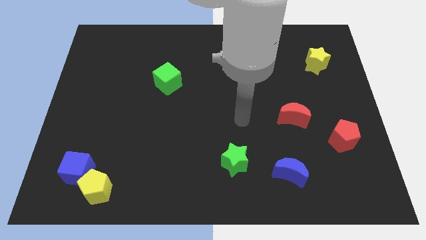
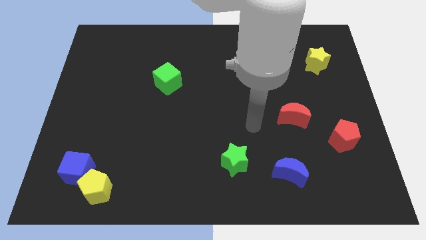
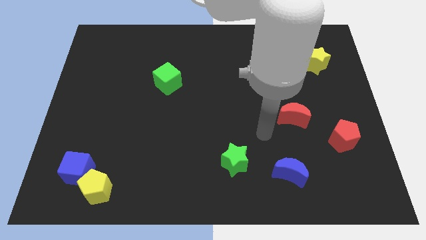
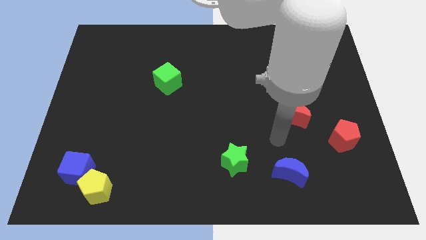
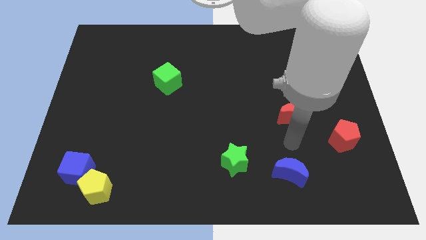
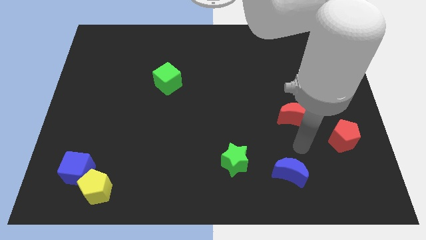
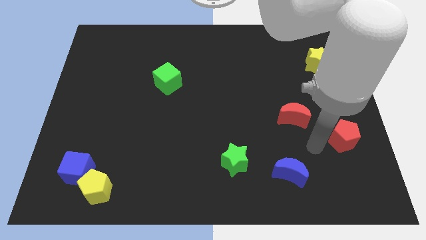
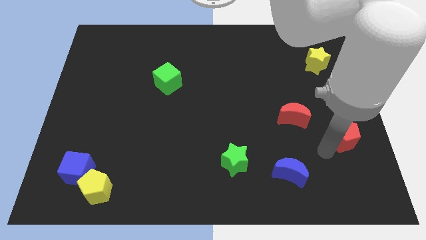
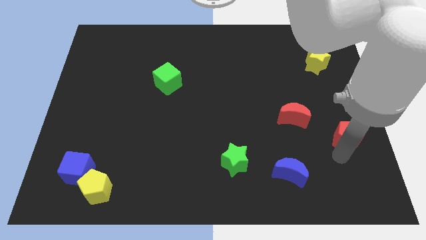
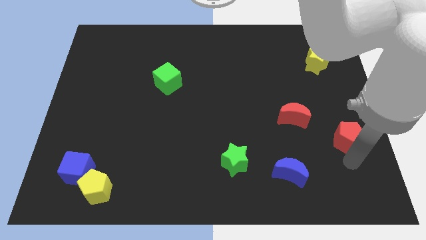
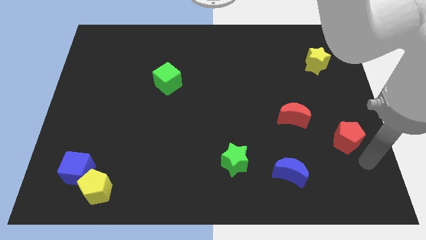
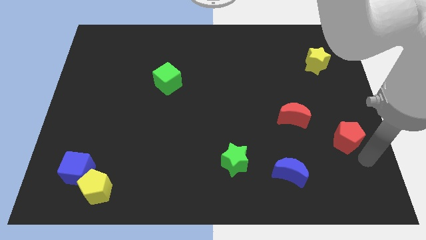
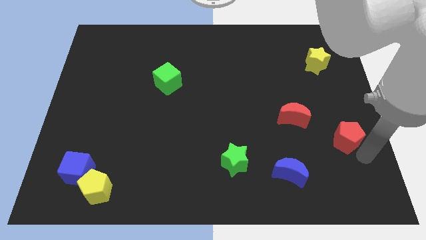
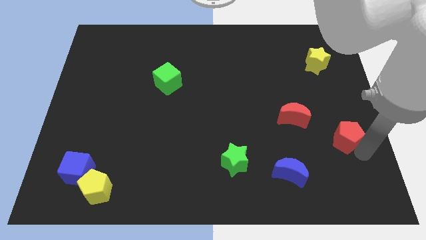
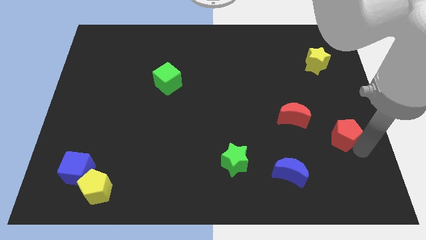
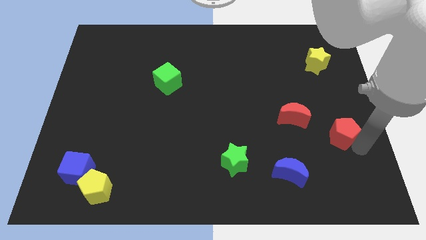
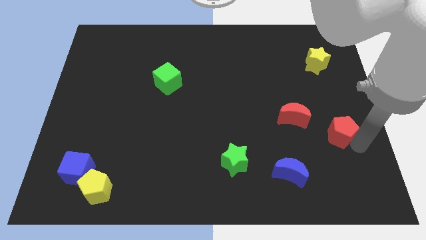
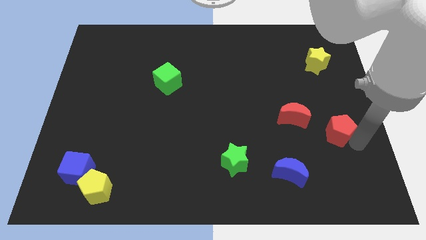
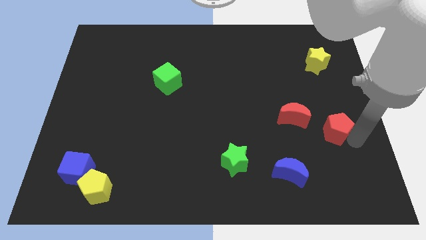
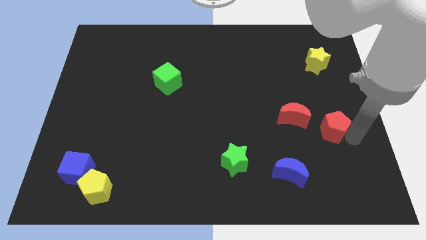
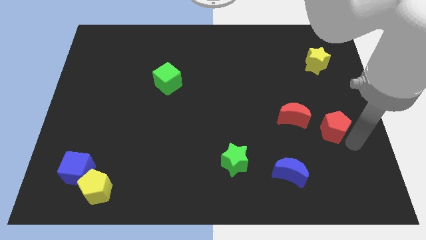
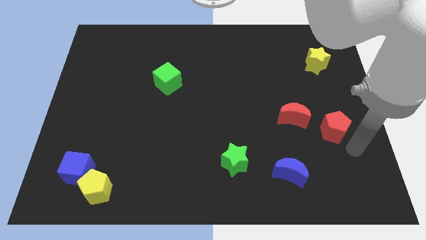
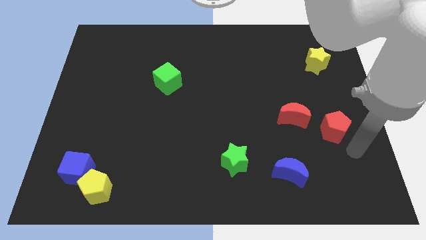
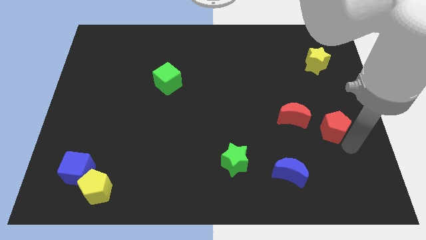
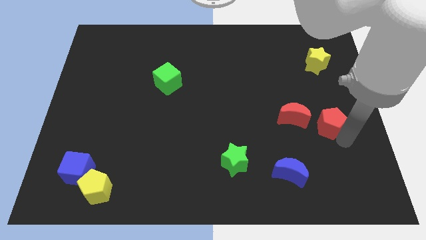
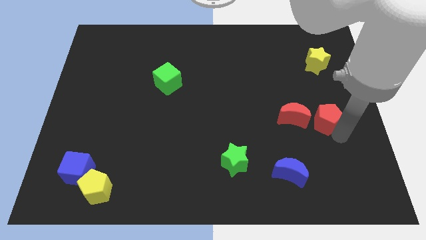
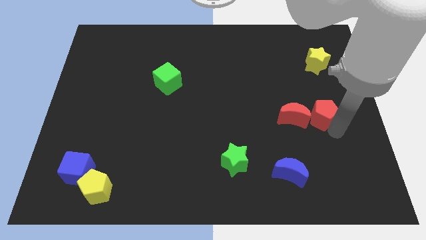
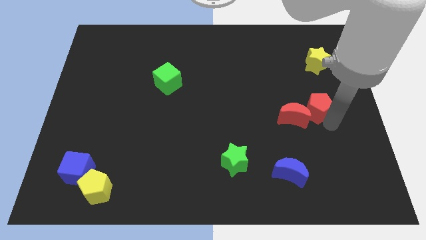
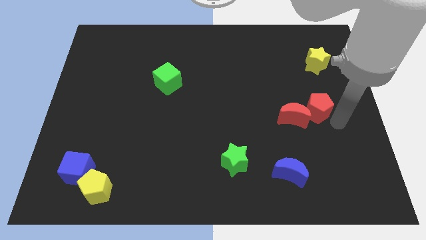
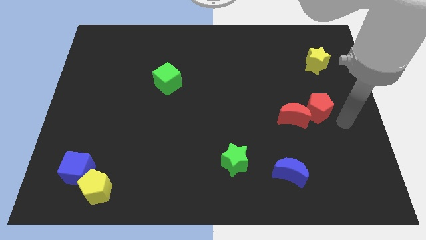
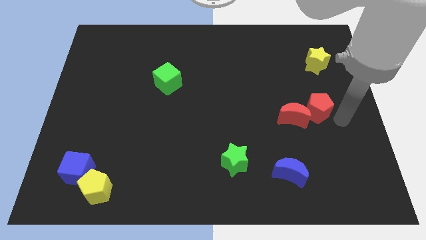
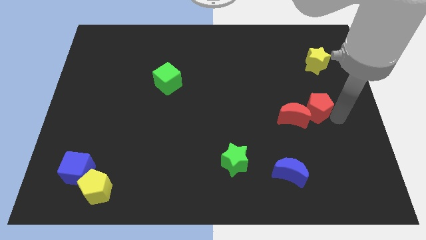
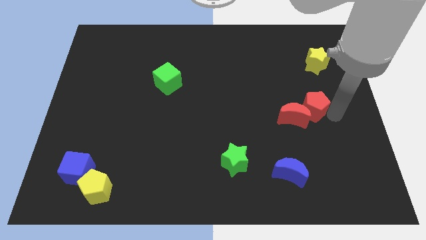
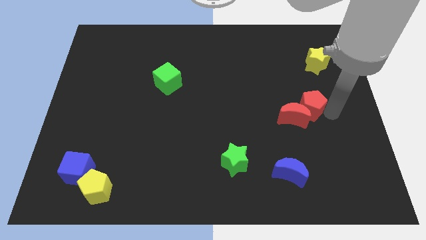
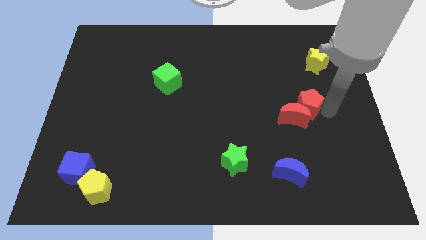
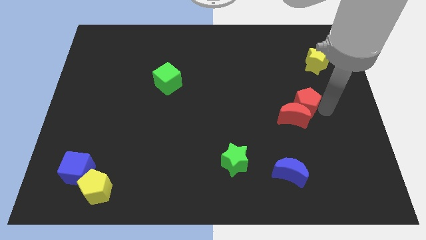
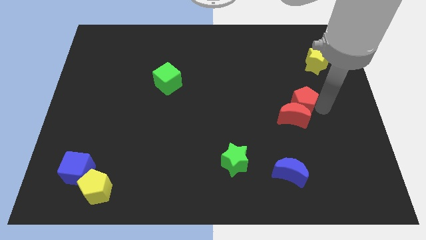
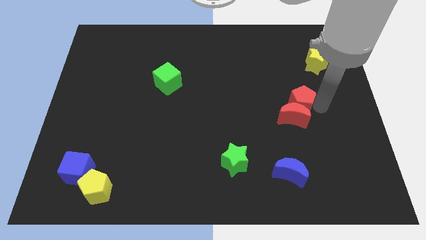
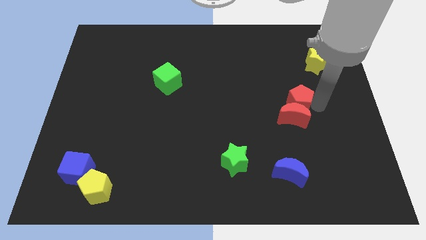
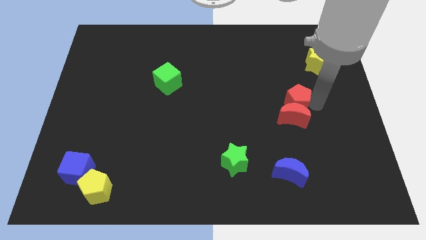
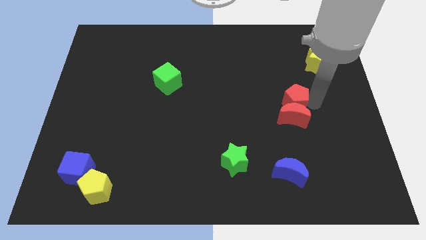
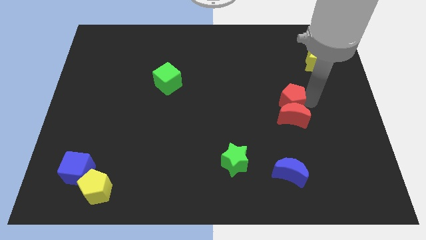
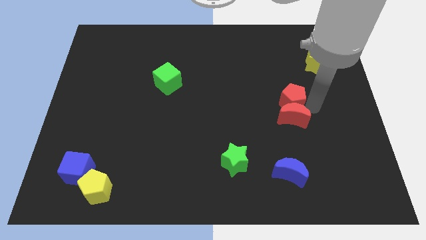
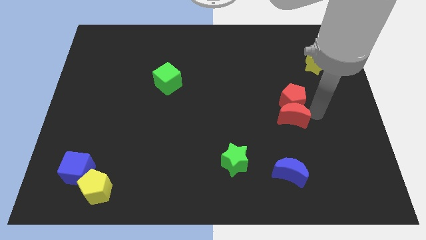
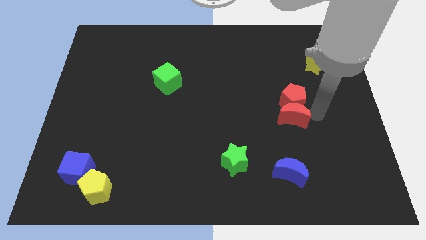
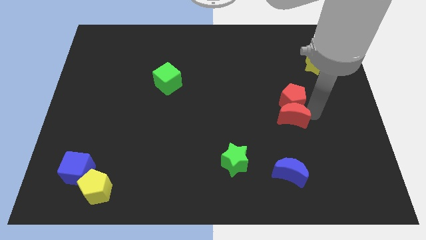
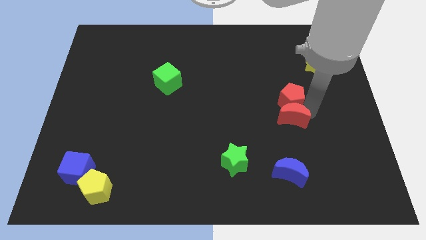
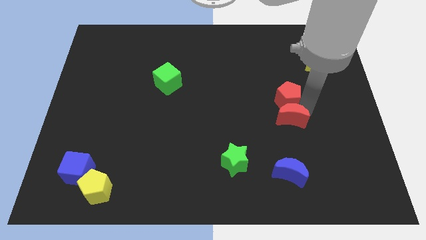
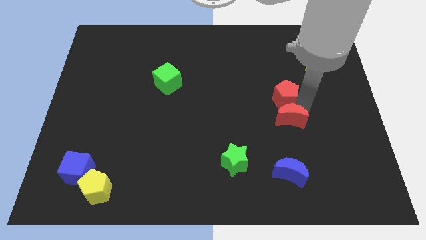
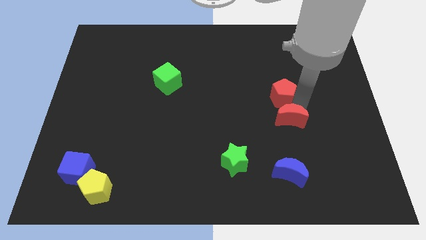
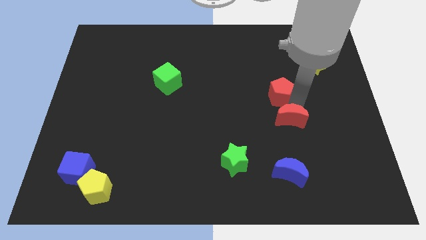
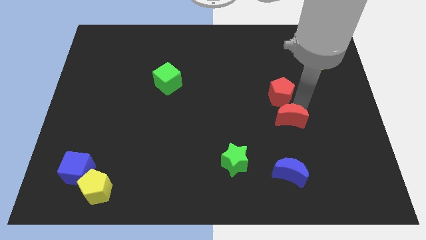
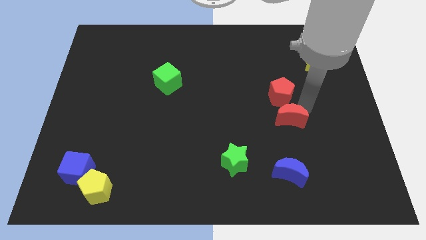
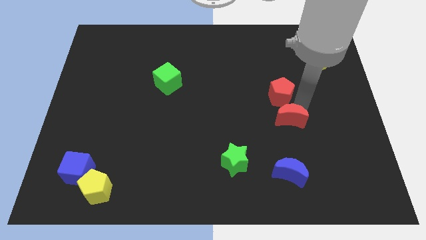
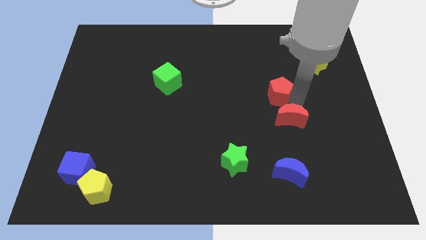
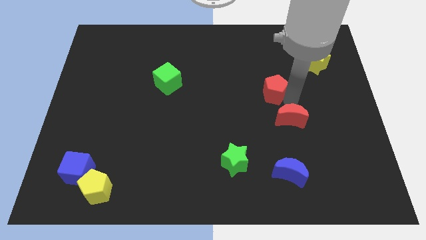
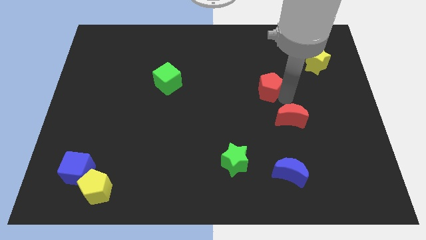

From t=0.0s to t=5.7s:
slide the red pentagon diagonally up and to the left

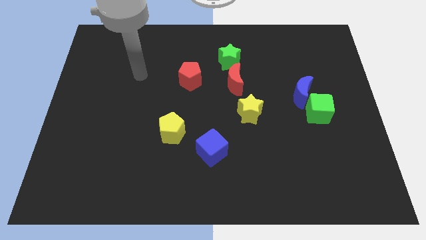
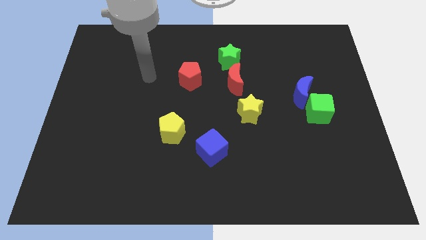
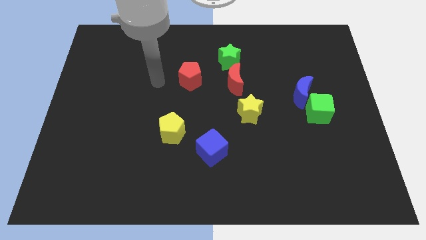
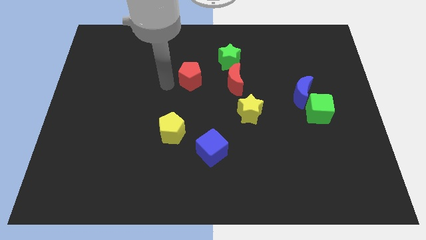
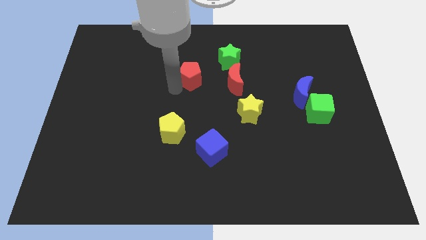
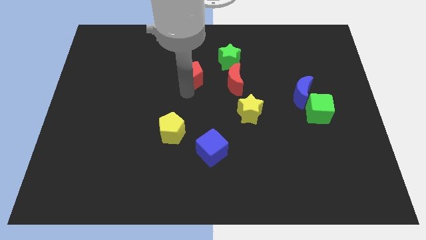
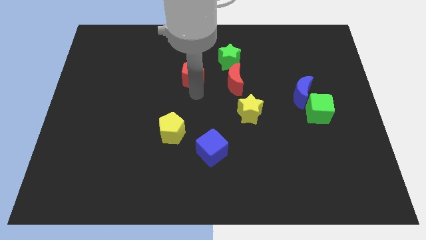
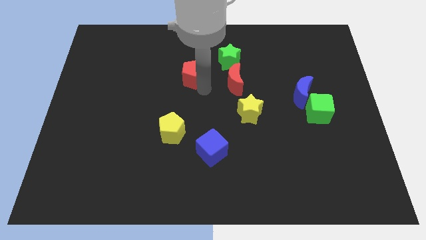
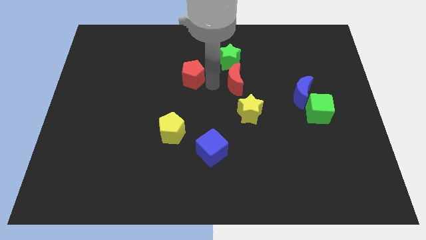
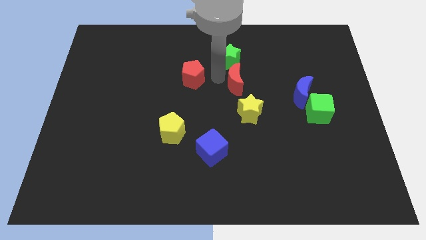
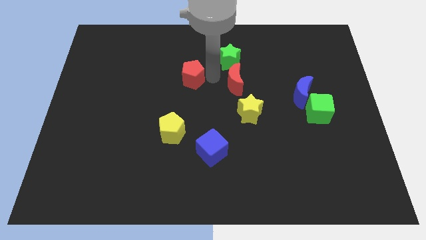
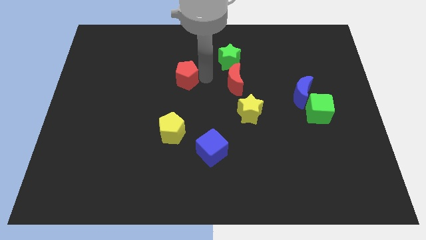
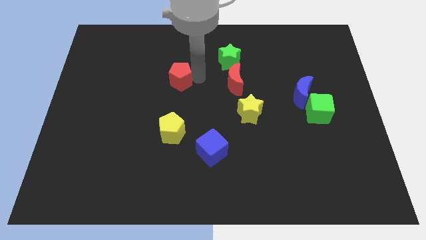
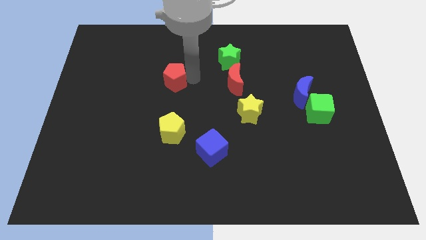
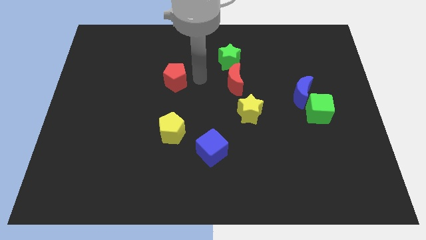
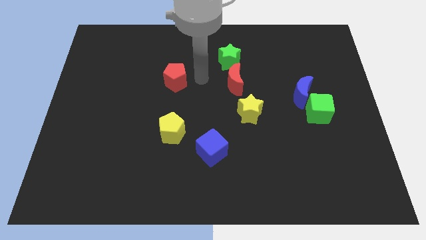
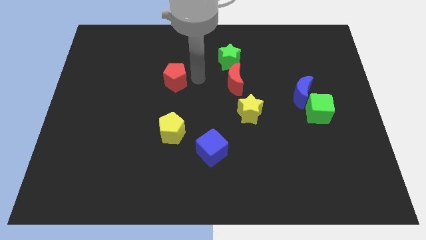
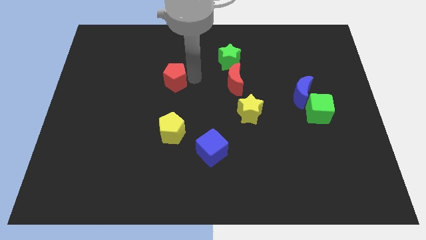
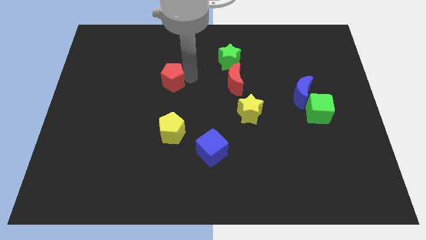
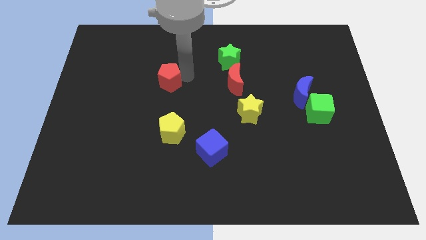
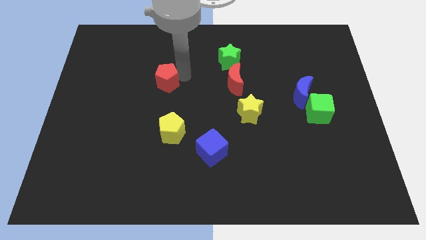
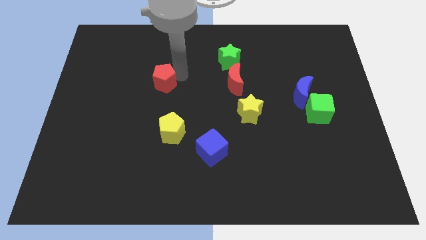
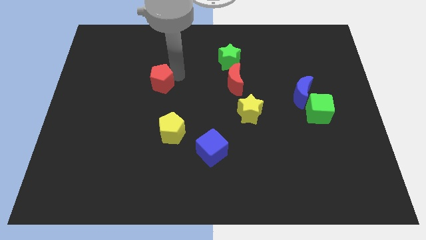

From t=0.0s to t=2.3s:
move the red pentagon somewhat left

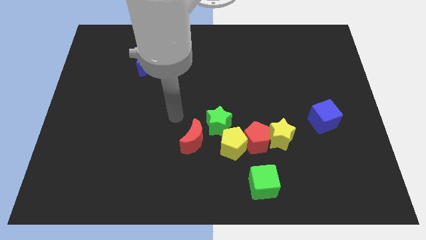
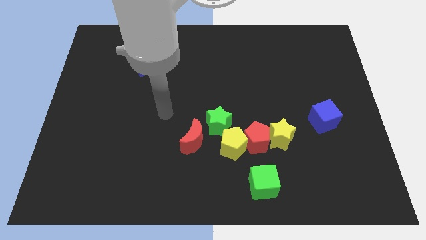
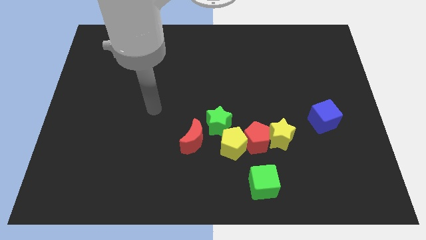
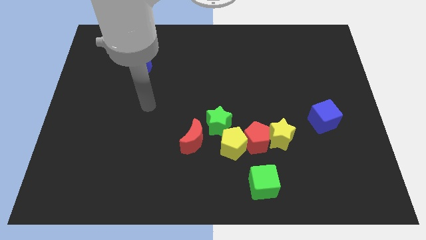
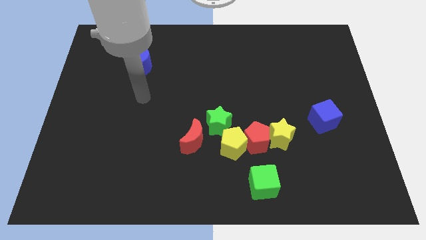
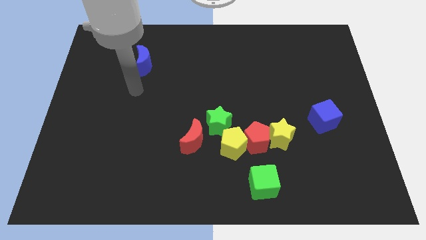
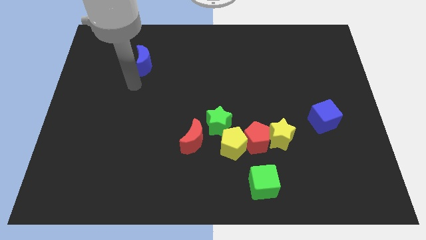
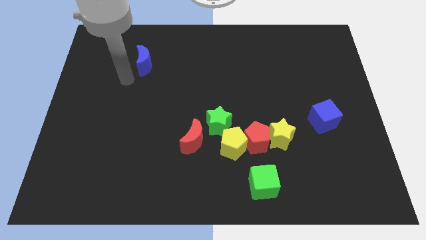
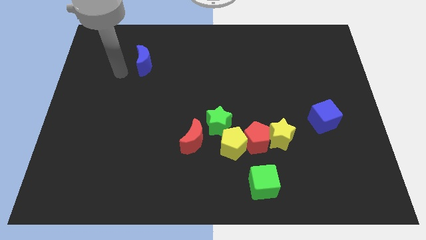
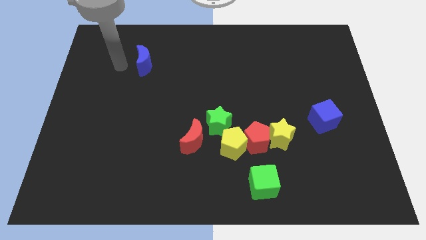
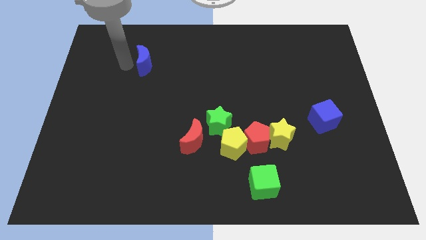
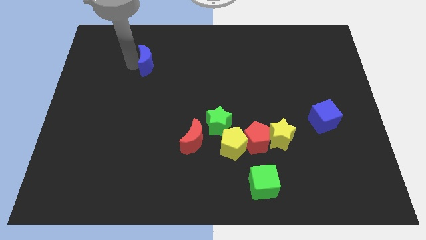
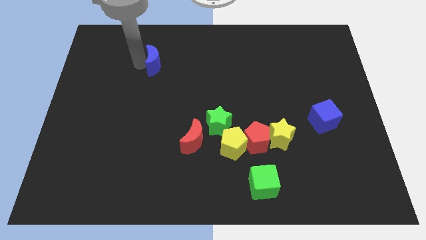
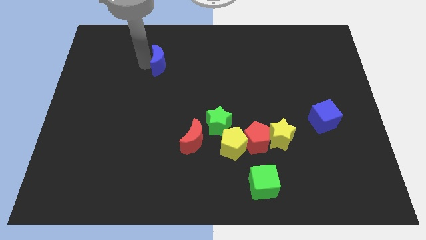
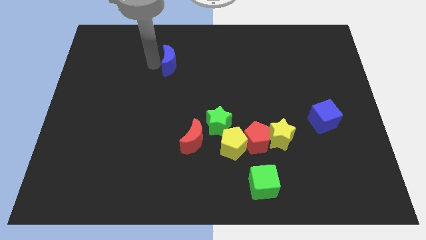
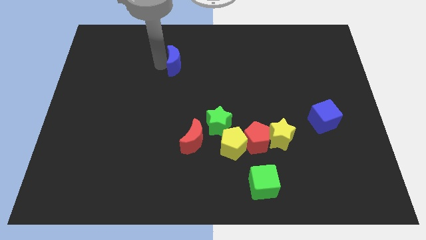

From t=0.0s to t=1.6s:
slide the blue moon a bit right
